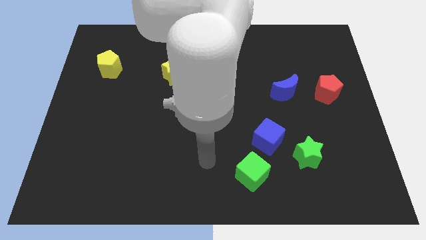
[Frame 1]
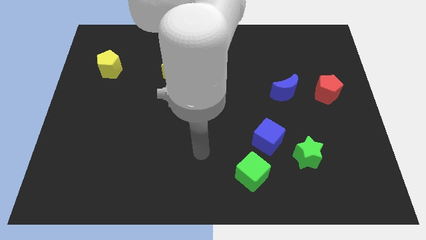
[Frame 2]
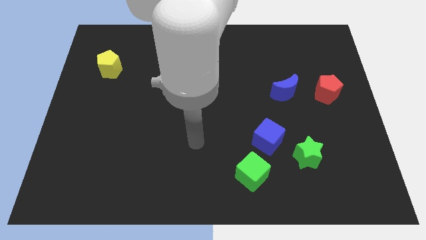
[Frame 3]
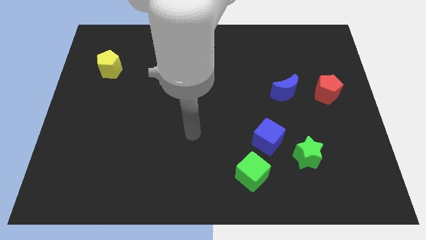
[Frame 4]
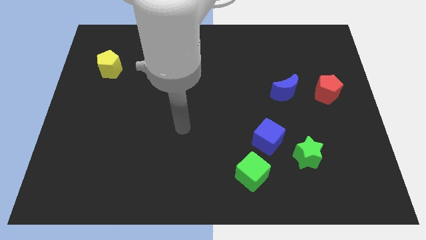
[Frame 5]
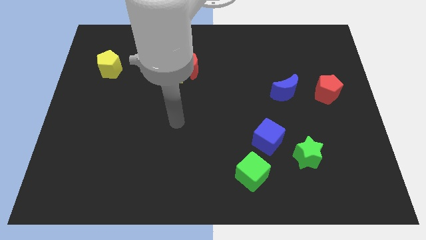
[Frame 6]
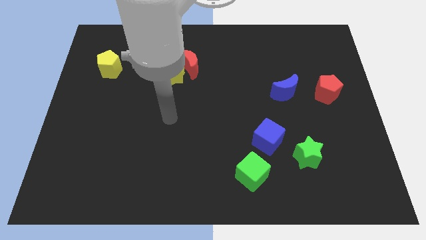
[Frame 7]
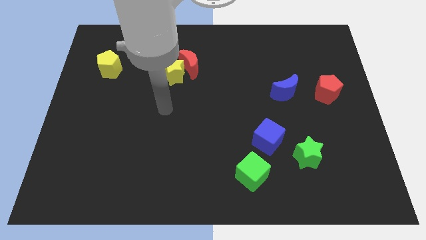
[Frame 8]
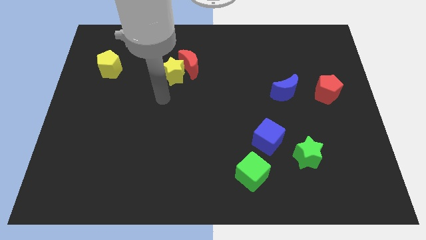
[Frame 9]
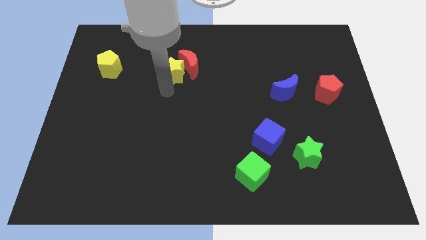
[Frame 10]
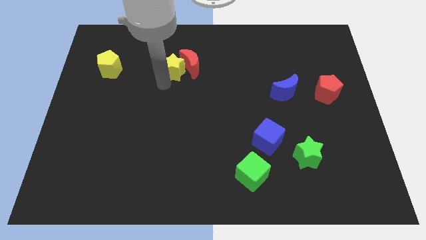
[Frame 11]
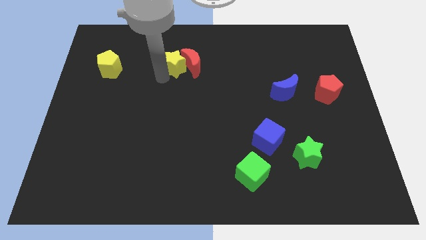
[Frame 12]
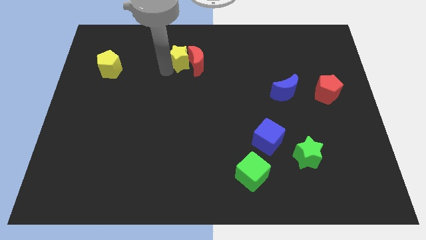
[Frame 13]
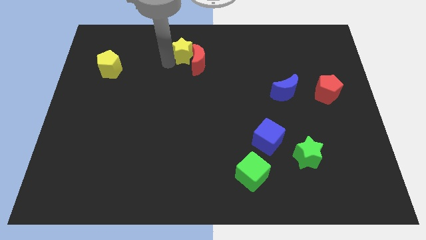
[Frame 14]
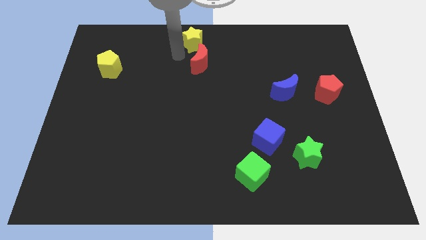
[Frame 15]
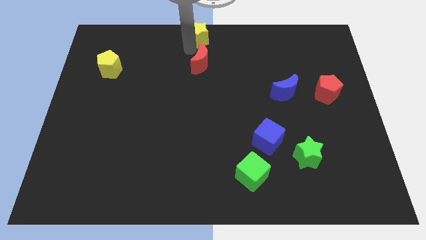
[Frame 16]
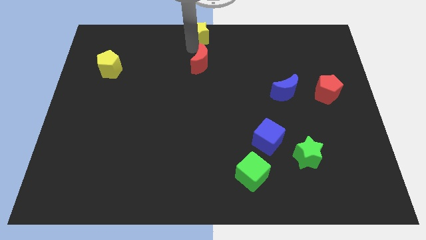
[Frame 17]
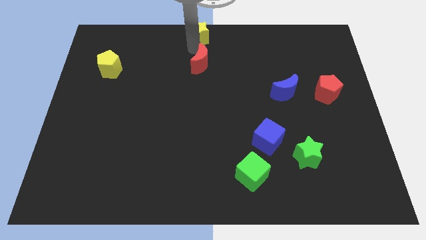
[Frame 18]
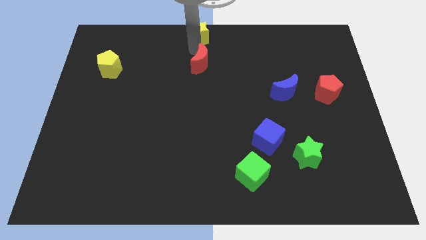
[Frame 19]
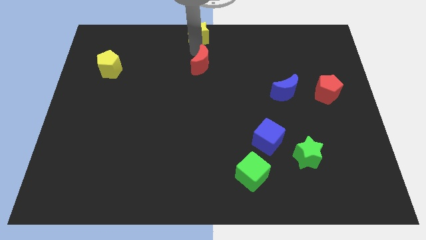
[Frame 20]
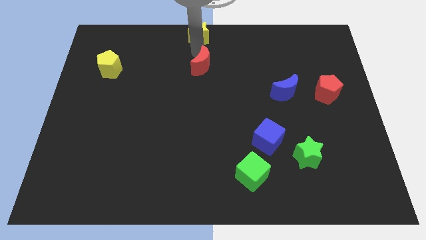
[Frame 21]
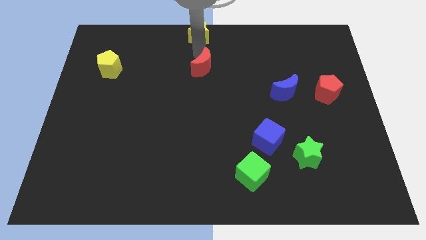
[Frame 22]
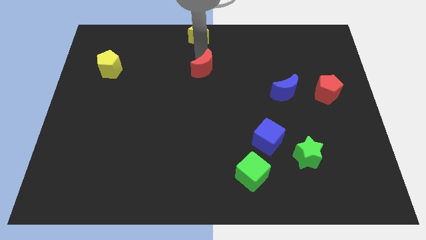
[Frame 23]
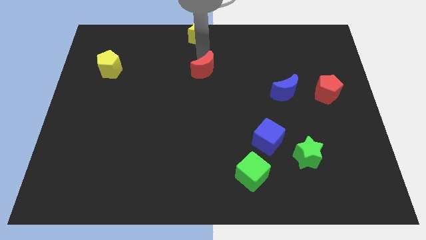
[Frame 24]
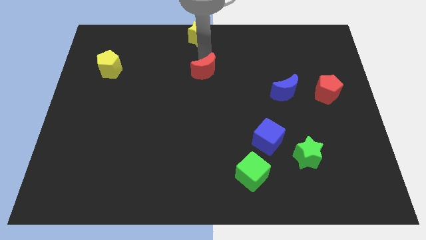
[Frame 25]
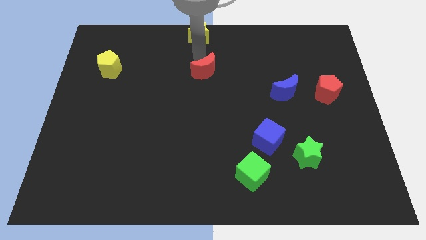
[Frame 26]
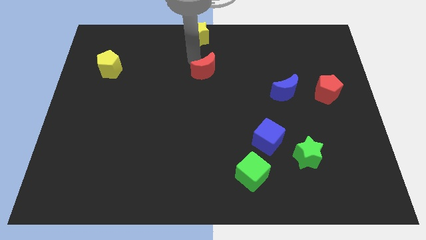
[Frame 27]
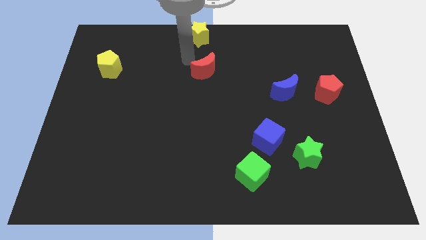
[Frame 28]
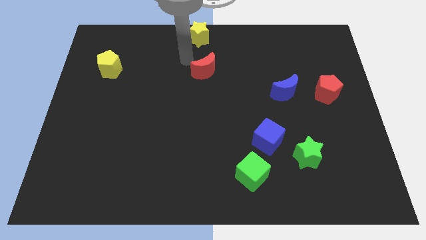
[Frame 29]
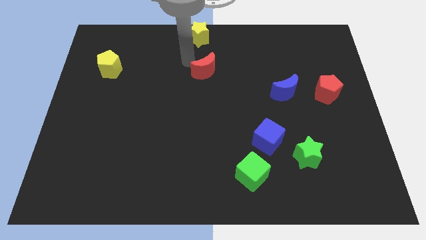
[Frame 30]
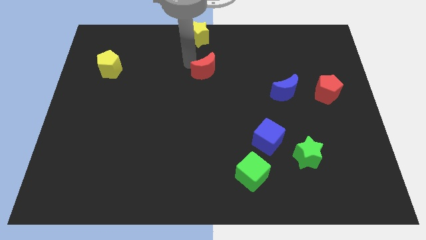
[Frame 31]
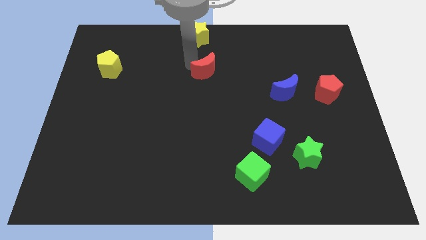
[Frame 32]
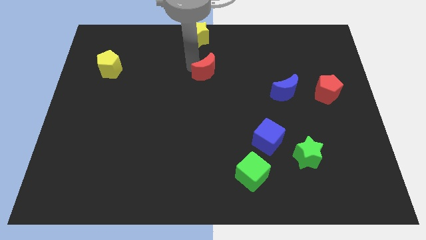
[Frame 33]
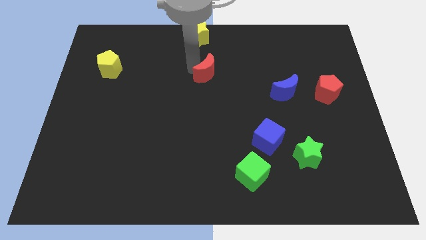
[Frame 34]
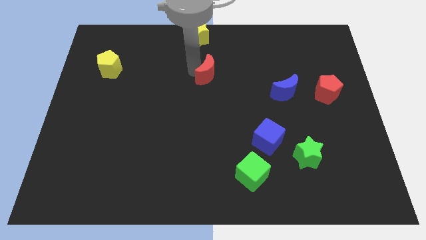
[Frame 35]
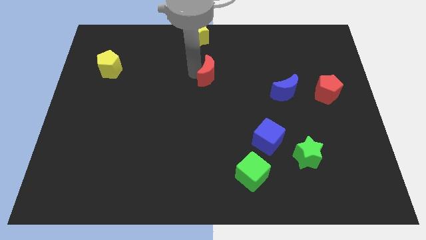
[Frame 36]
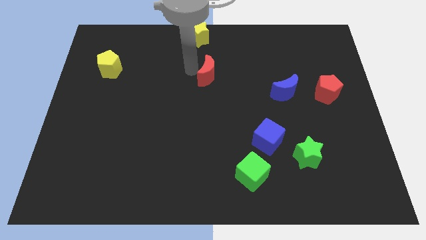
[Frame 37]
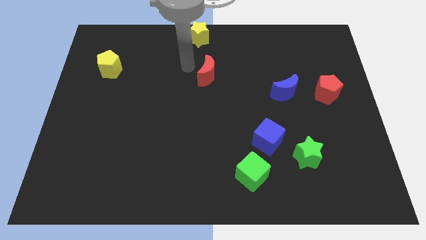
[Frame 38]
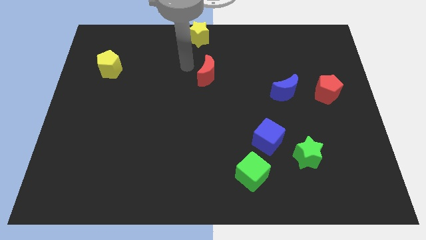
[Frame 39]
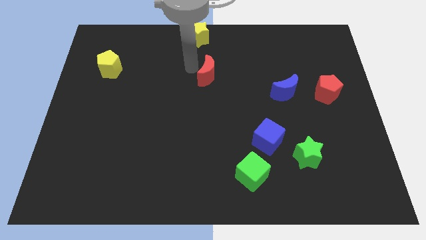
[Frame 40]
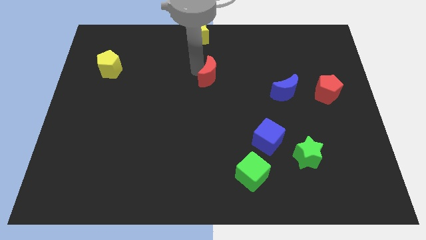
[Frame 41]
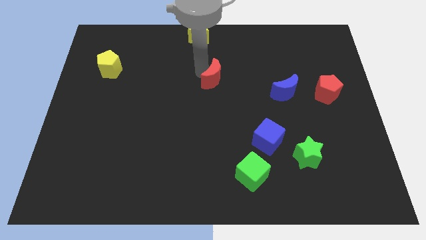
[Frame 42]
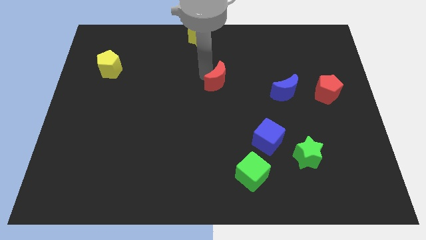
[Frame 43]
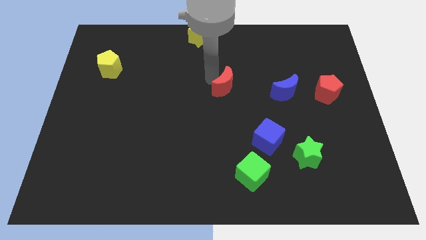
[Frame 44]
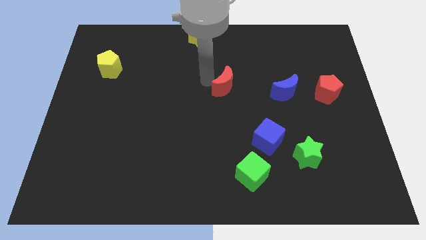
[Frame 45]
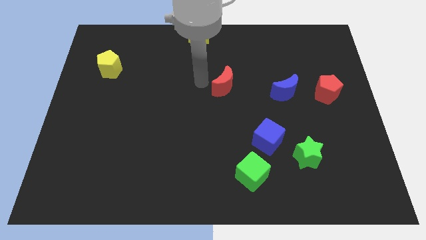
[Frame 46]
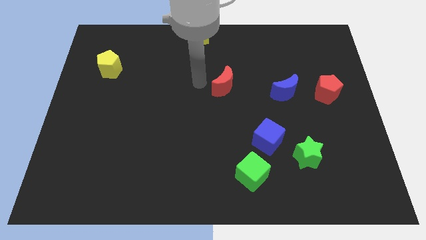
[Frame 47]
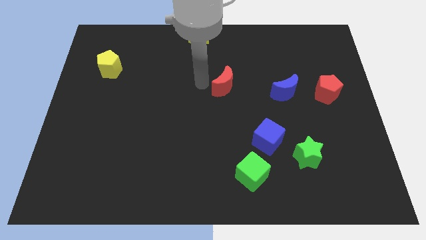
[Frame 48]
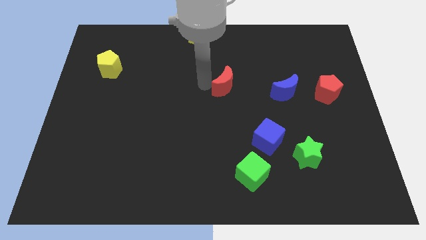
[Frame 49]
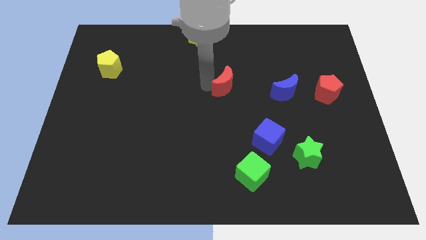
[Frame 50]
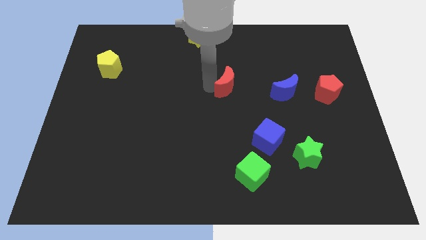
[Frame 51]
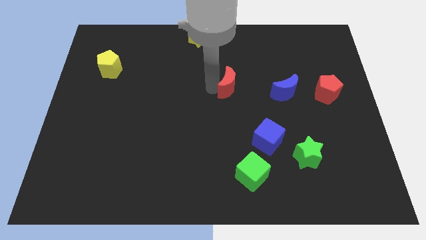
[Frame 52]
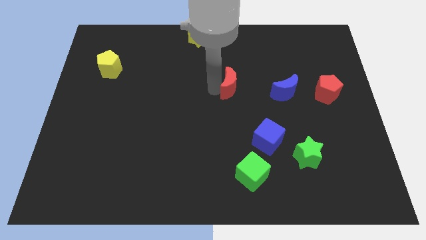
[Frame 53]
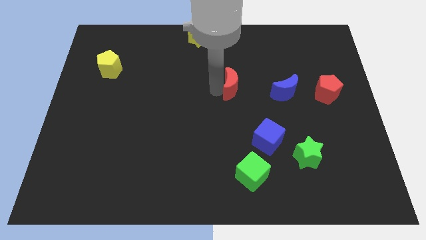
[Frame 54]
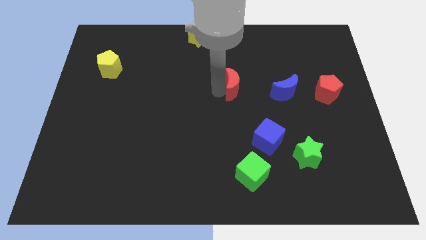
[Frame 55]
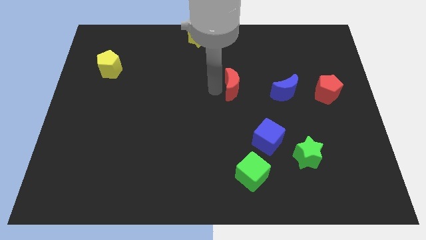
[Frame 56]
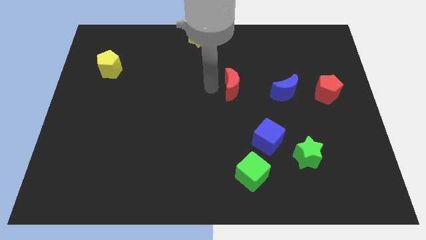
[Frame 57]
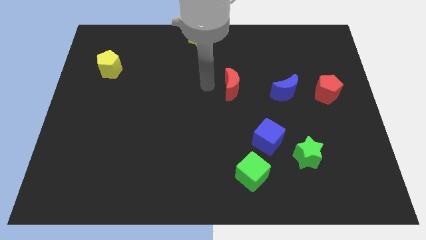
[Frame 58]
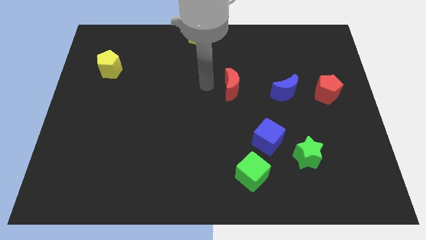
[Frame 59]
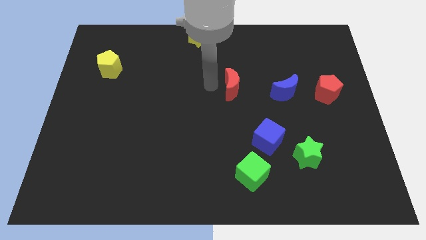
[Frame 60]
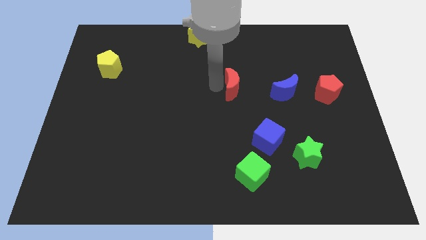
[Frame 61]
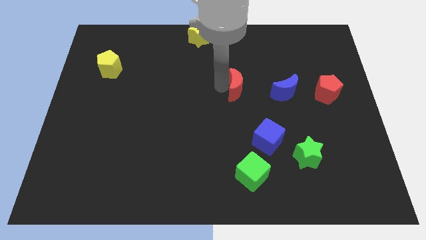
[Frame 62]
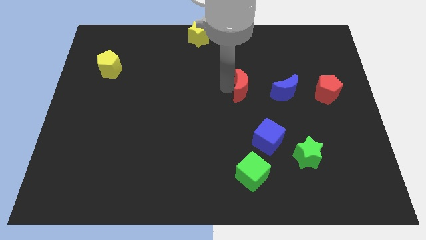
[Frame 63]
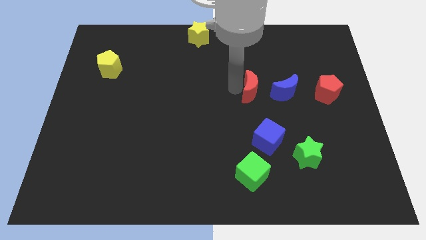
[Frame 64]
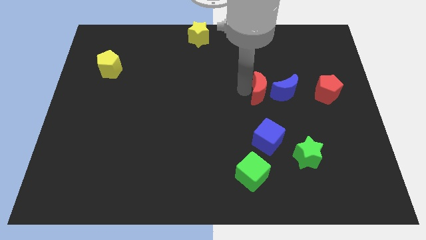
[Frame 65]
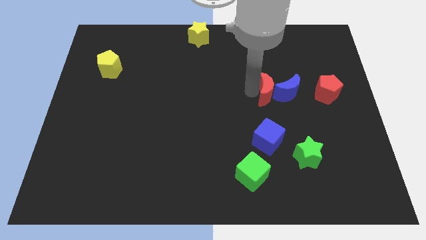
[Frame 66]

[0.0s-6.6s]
put the red moon towards the blue moon

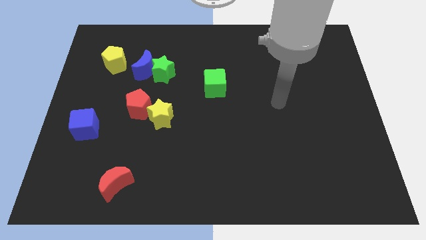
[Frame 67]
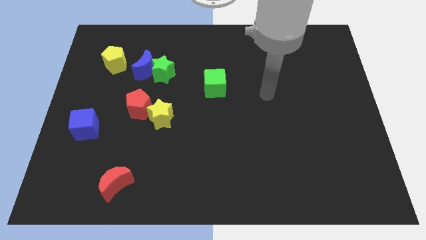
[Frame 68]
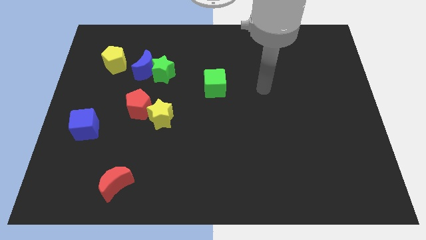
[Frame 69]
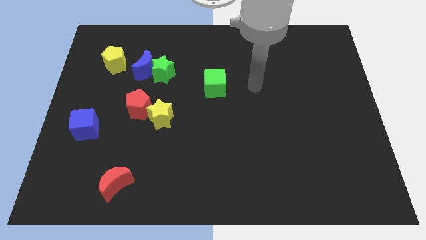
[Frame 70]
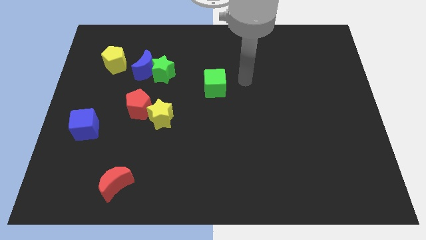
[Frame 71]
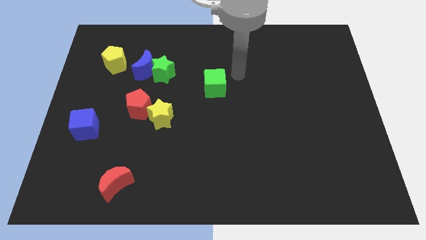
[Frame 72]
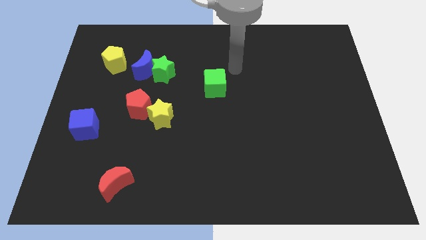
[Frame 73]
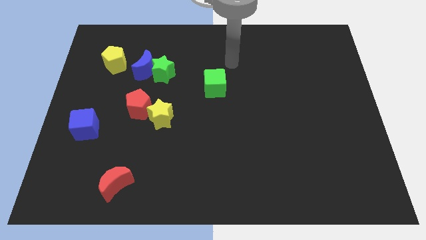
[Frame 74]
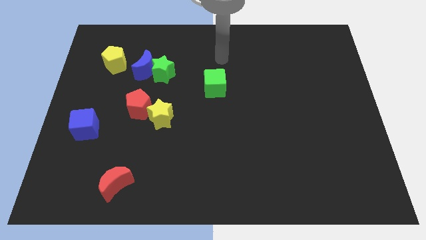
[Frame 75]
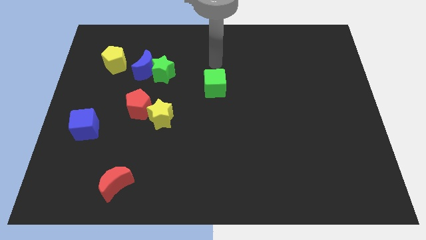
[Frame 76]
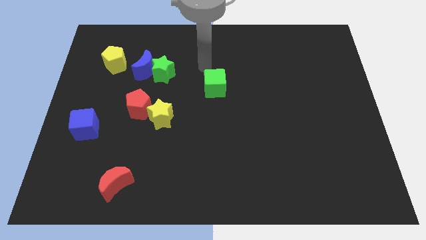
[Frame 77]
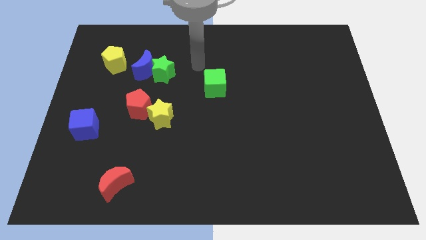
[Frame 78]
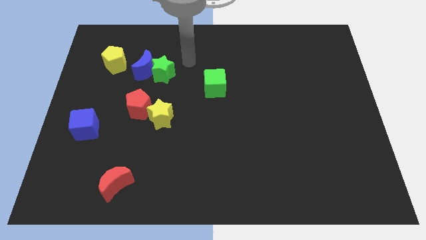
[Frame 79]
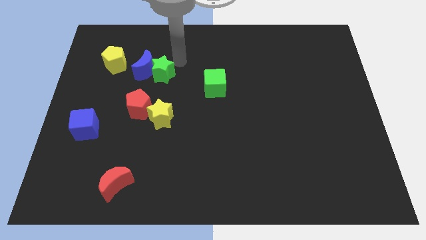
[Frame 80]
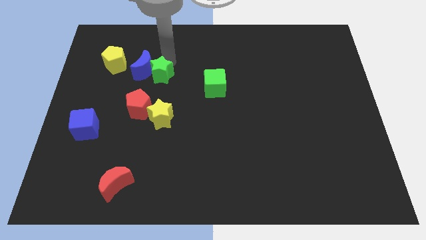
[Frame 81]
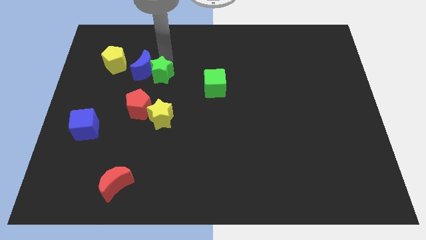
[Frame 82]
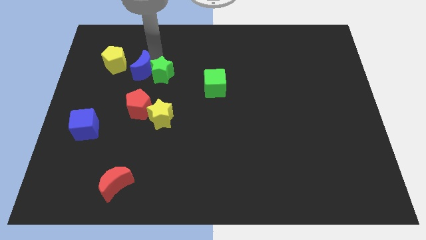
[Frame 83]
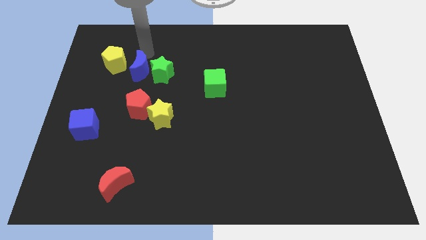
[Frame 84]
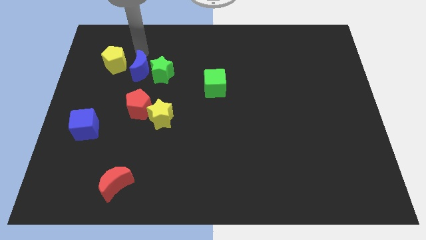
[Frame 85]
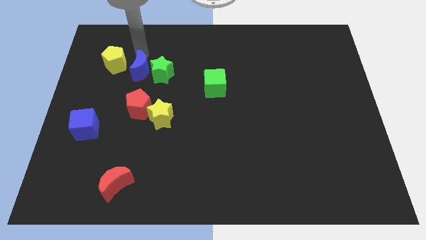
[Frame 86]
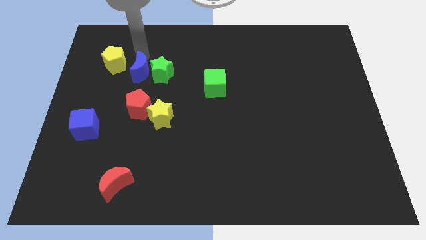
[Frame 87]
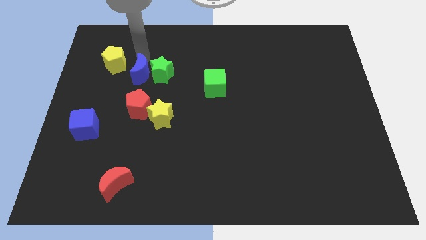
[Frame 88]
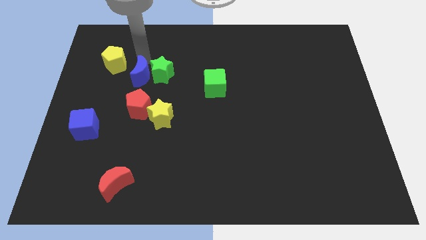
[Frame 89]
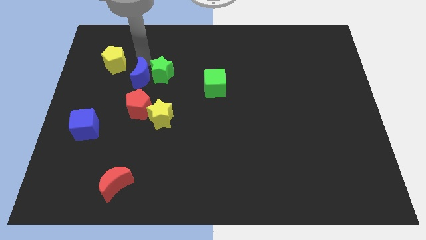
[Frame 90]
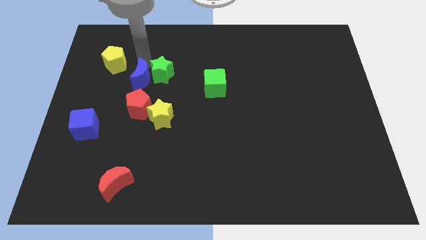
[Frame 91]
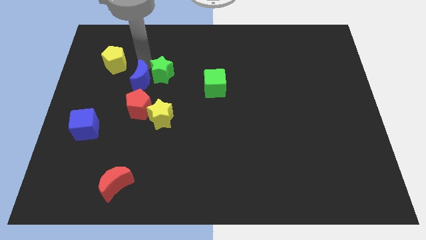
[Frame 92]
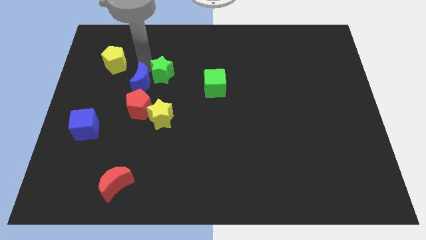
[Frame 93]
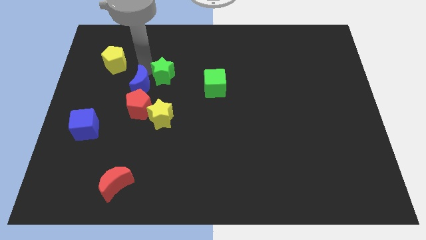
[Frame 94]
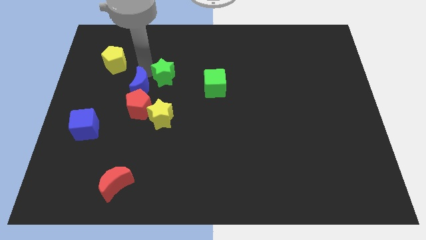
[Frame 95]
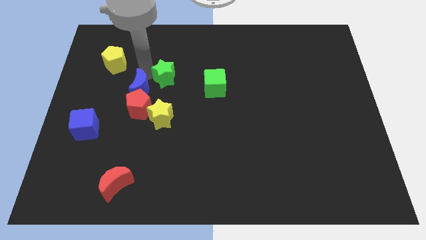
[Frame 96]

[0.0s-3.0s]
move the blue moon next to the red pentagon
